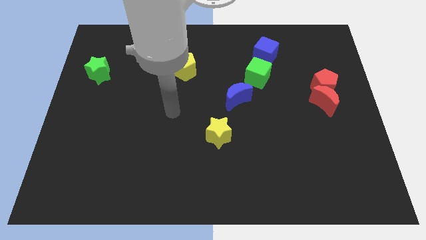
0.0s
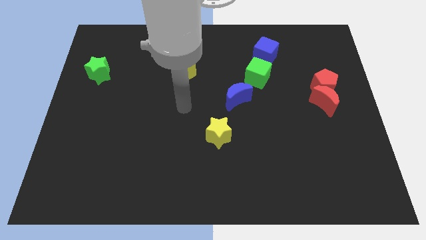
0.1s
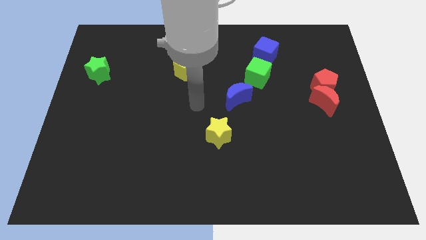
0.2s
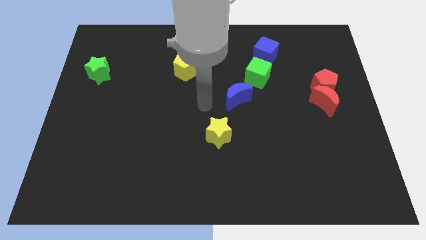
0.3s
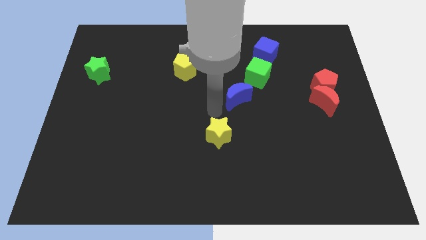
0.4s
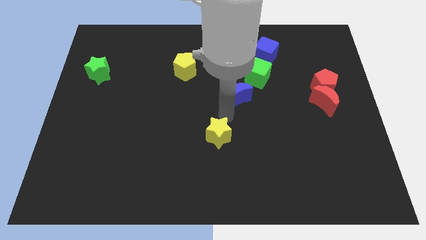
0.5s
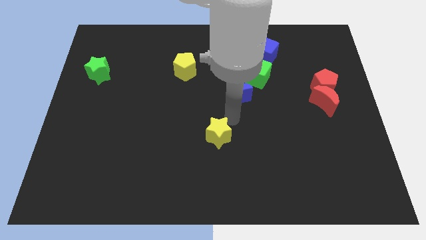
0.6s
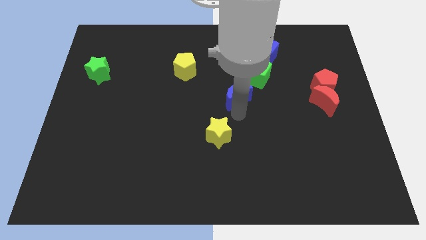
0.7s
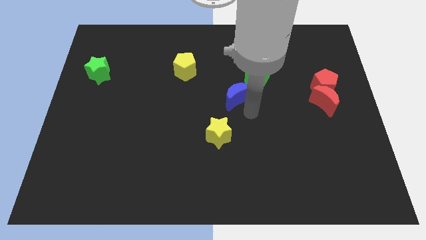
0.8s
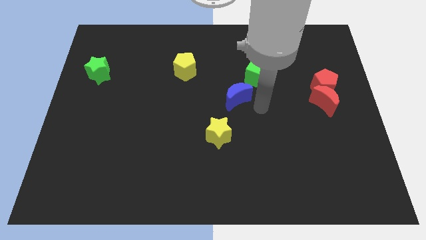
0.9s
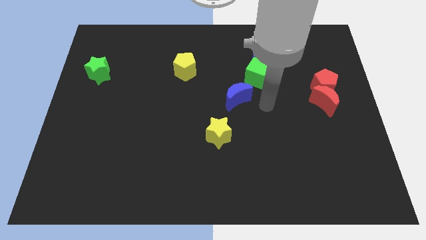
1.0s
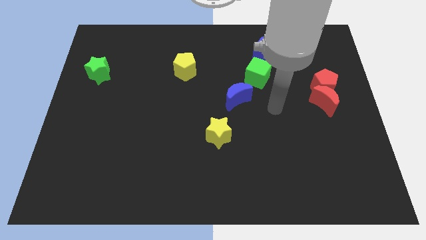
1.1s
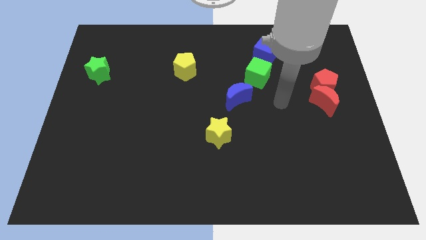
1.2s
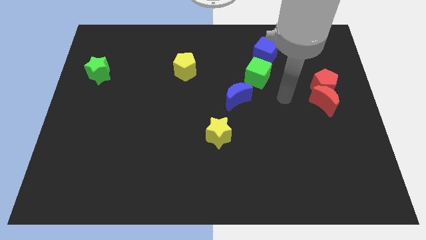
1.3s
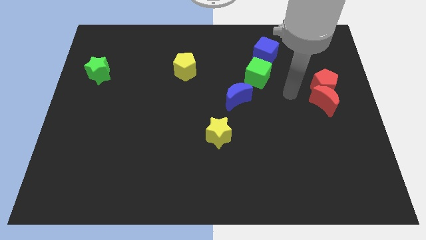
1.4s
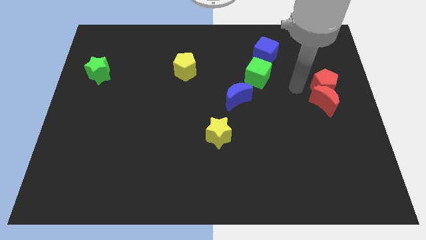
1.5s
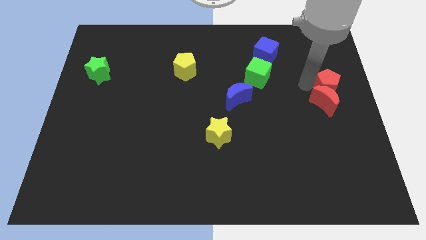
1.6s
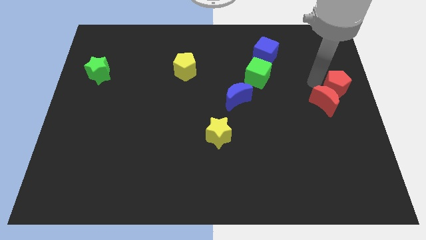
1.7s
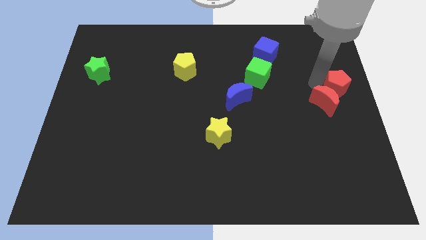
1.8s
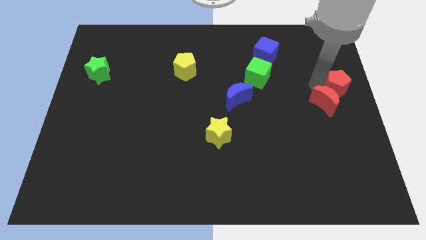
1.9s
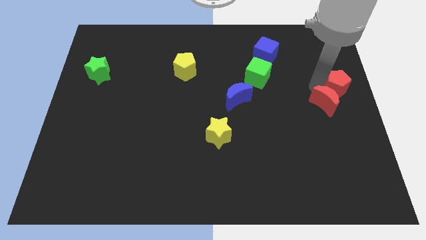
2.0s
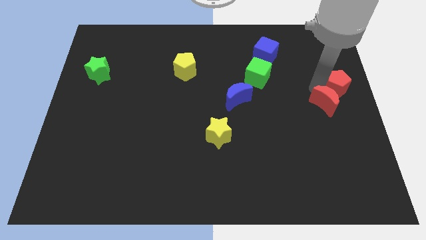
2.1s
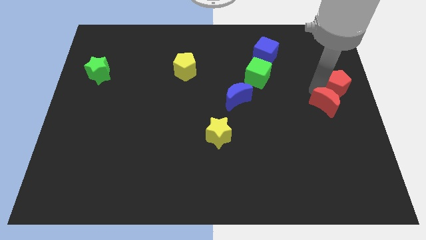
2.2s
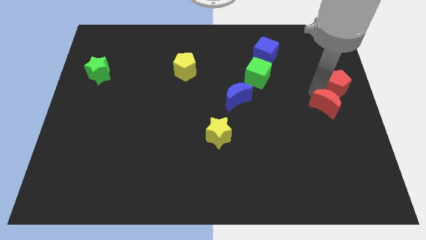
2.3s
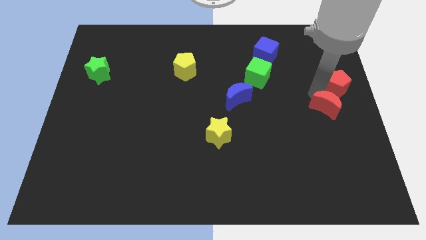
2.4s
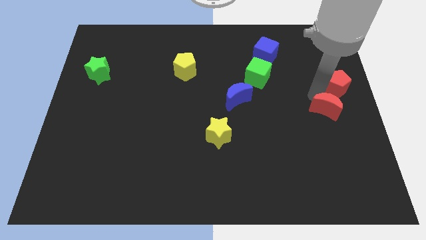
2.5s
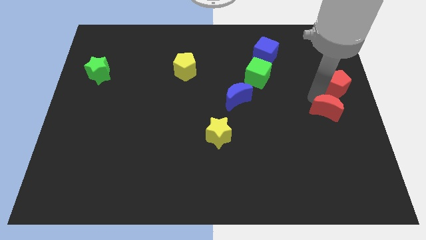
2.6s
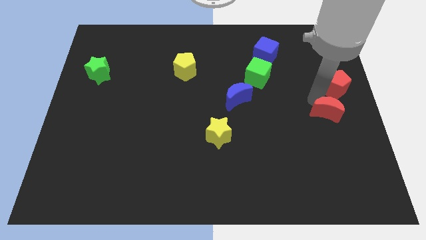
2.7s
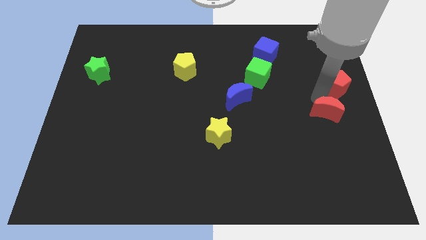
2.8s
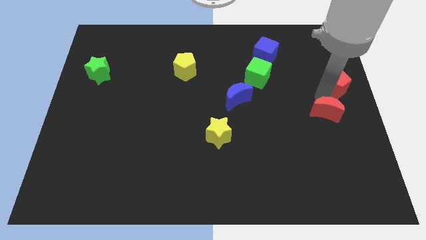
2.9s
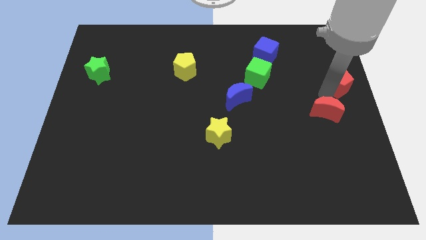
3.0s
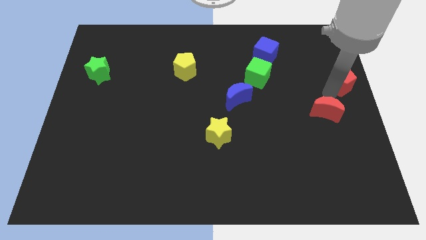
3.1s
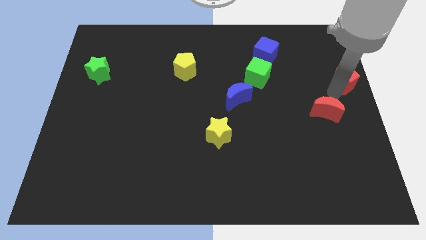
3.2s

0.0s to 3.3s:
move the red moon away from the red pentagon

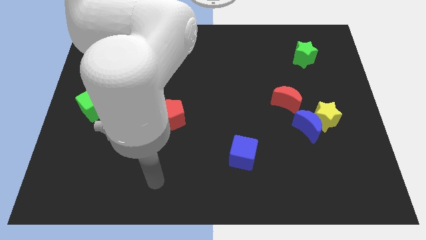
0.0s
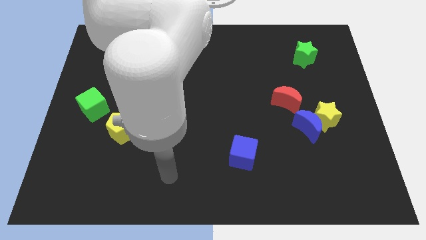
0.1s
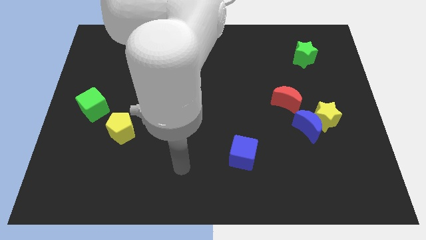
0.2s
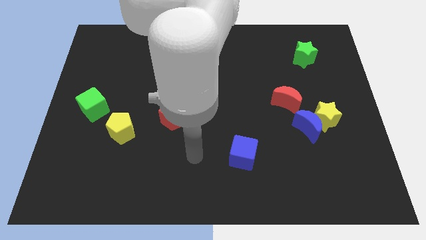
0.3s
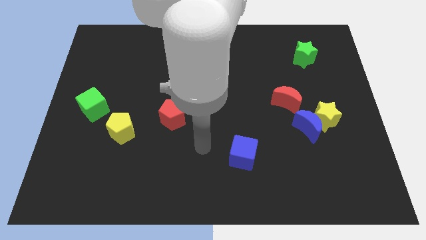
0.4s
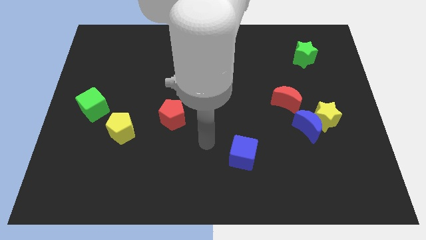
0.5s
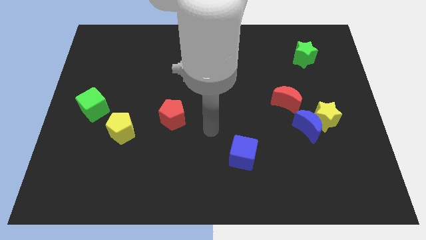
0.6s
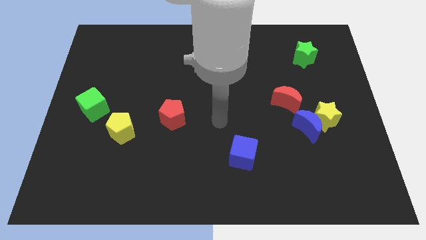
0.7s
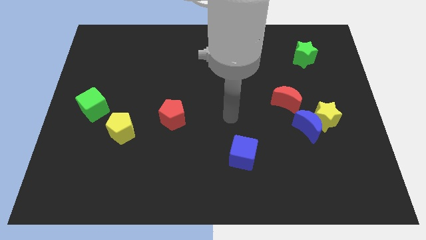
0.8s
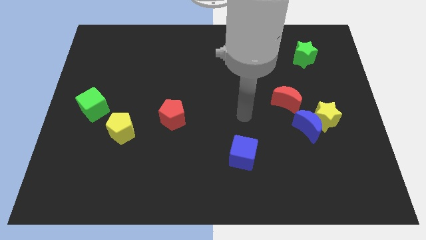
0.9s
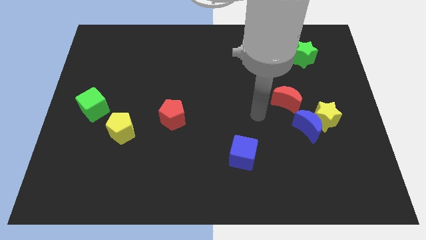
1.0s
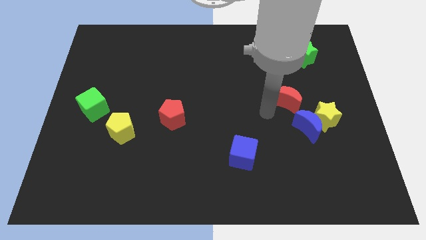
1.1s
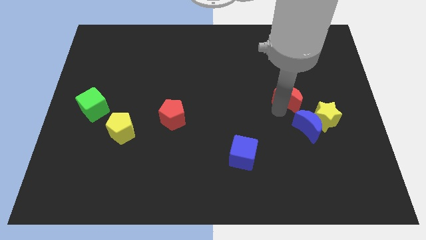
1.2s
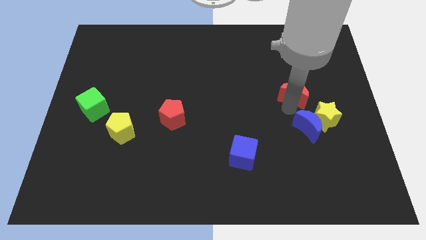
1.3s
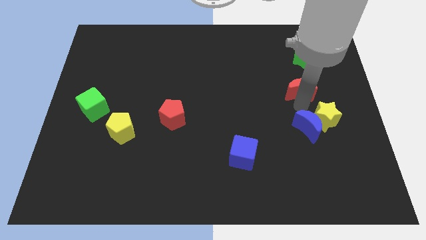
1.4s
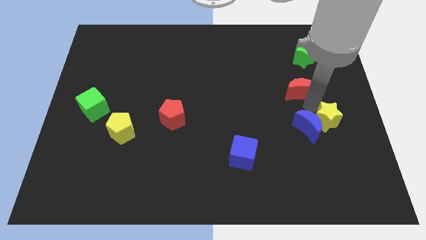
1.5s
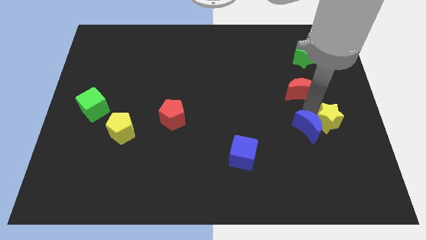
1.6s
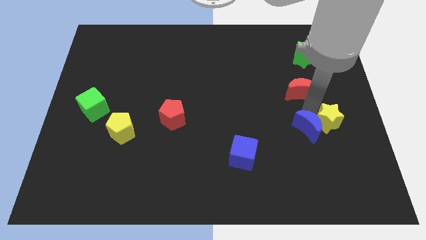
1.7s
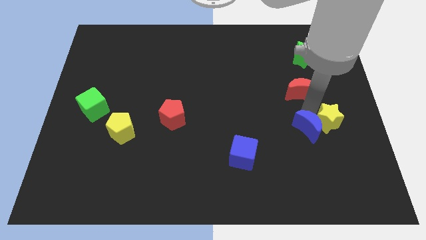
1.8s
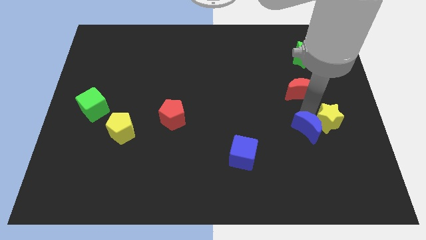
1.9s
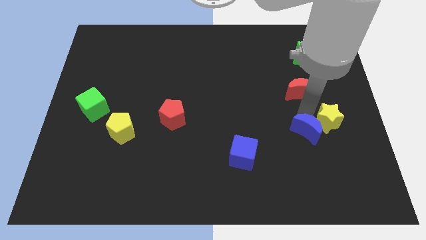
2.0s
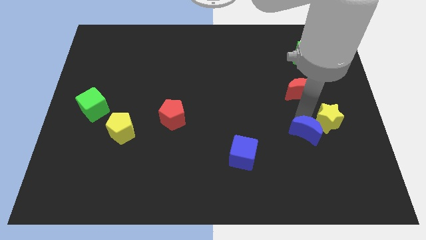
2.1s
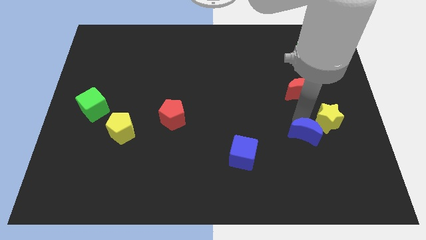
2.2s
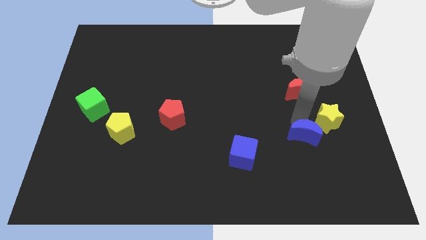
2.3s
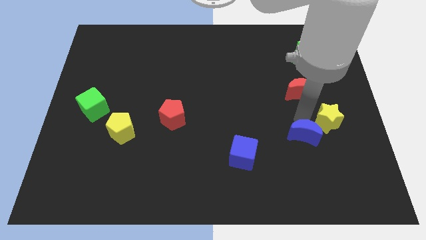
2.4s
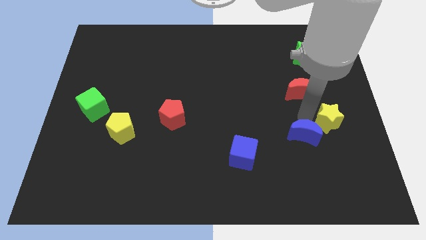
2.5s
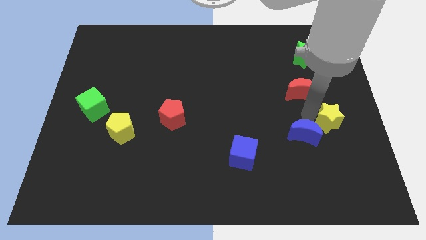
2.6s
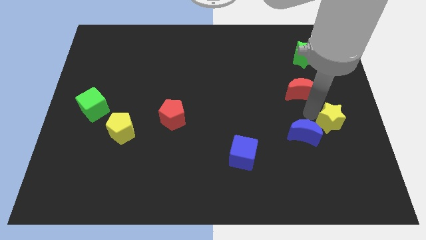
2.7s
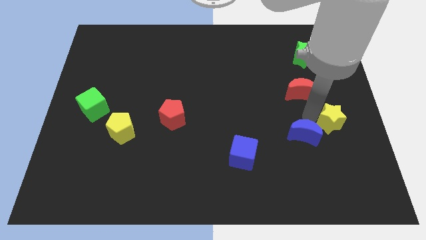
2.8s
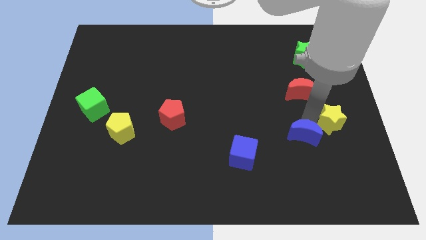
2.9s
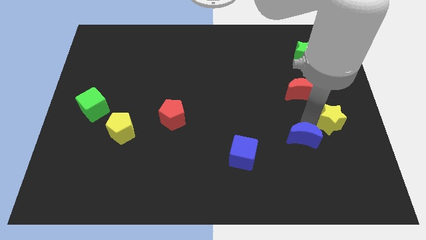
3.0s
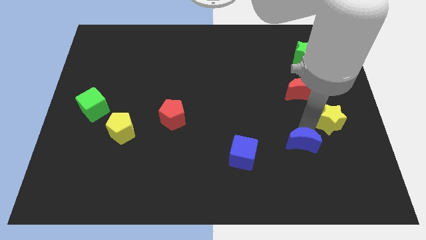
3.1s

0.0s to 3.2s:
separate the blue moon from the yellow star and red moon

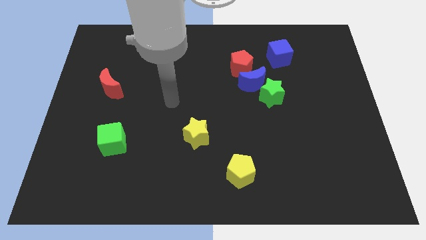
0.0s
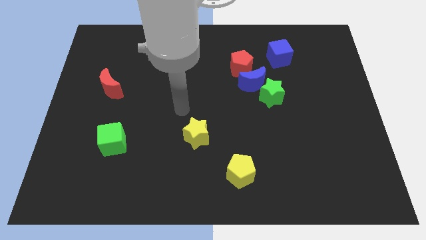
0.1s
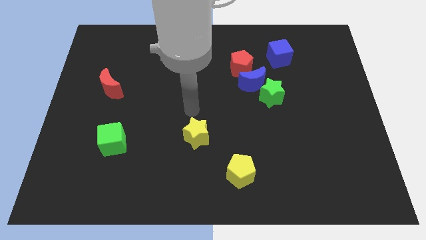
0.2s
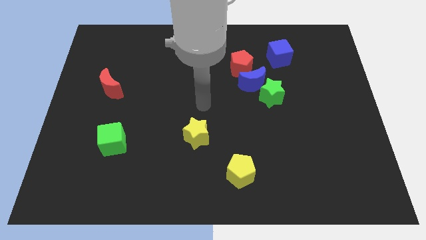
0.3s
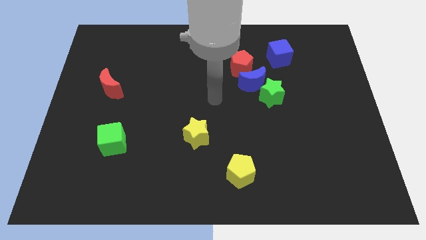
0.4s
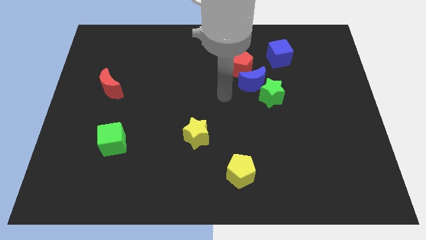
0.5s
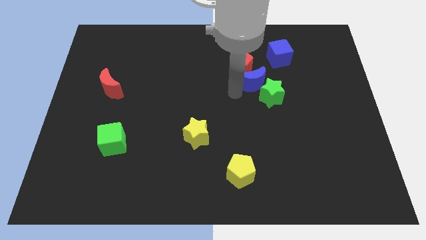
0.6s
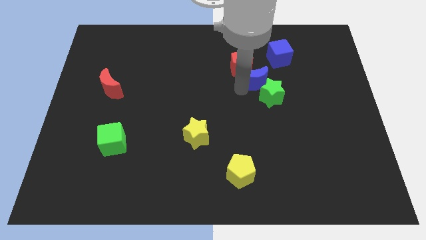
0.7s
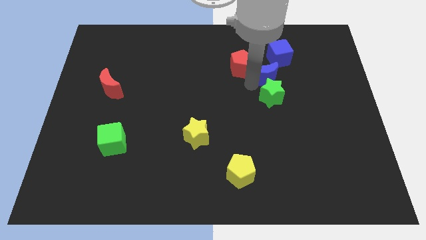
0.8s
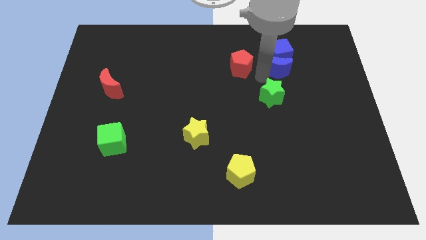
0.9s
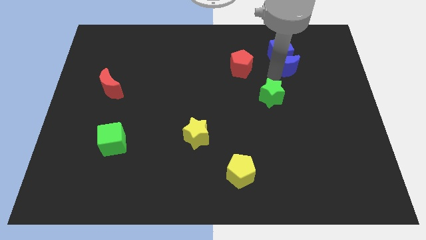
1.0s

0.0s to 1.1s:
move the green star away from the blue moon

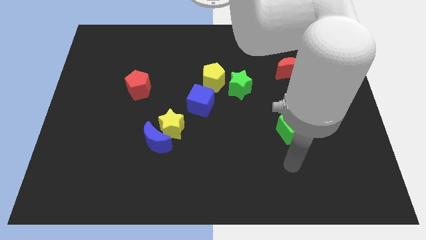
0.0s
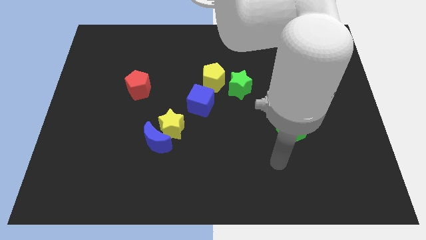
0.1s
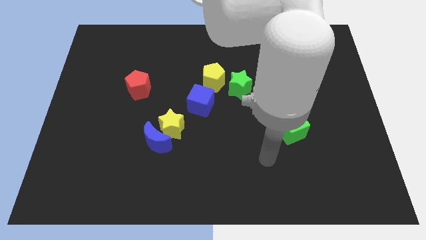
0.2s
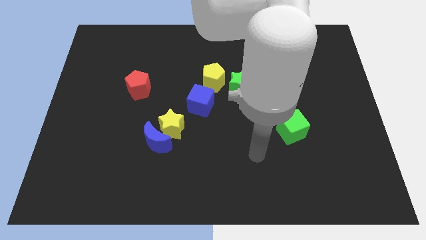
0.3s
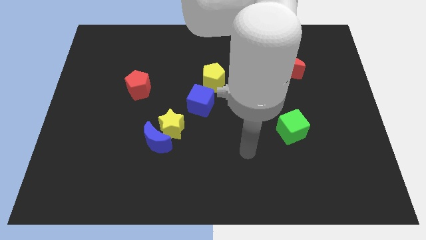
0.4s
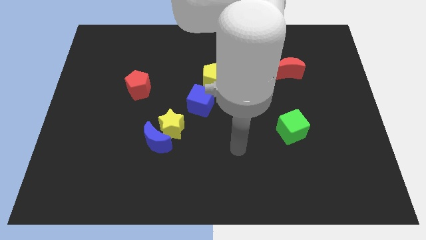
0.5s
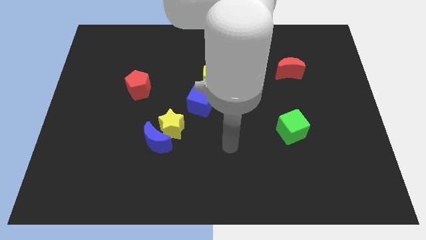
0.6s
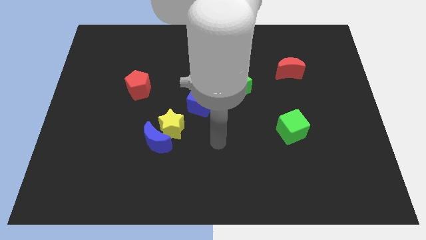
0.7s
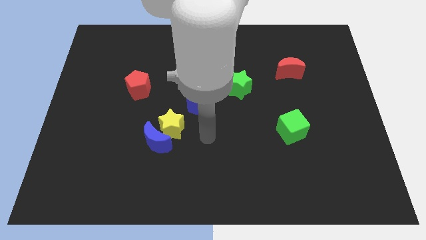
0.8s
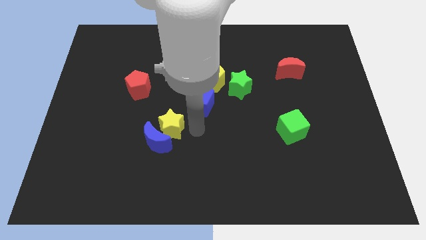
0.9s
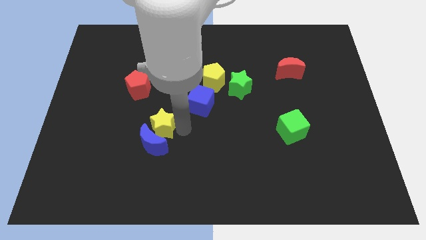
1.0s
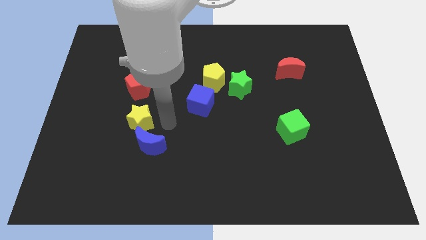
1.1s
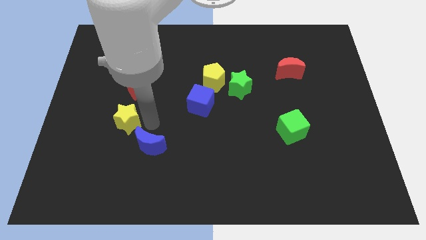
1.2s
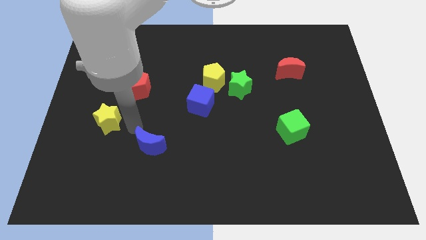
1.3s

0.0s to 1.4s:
pull the blue moon apart from the yellow star

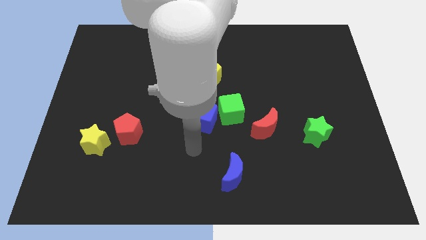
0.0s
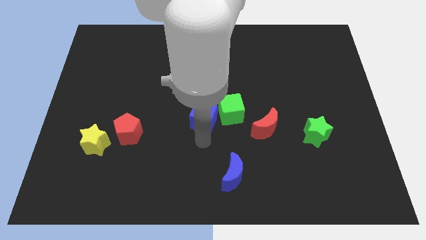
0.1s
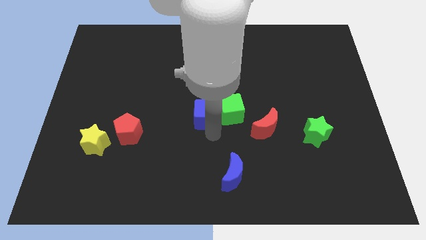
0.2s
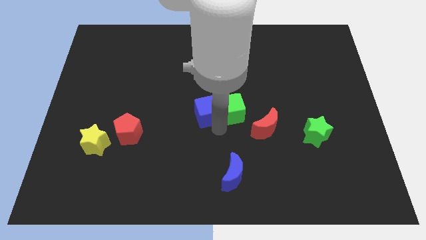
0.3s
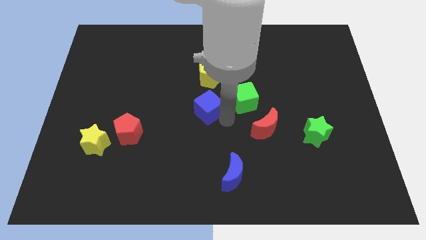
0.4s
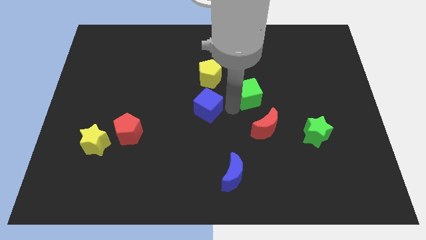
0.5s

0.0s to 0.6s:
move the blue cube away from the green cube
